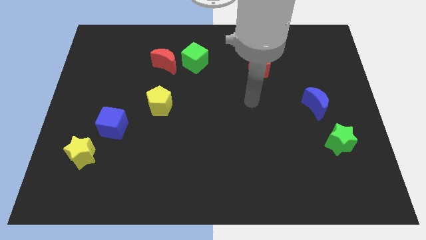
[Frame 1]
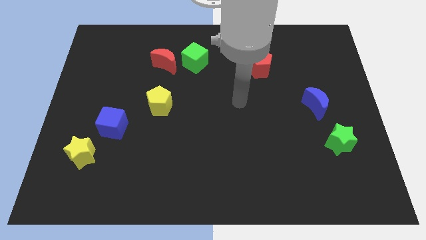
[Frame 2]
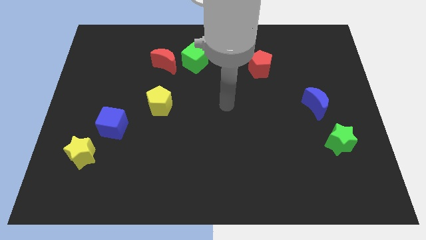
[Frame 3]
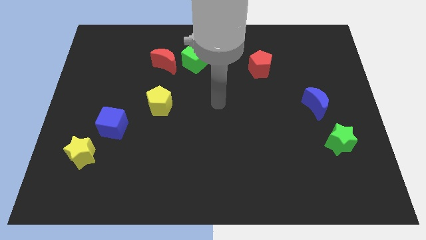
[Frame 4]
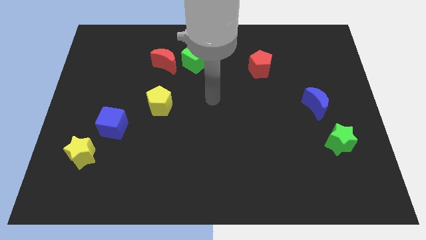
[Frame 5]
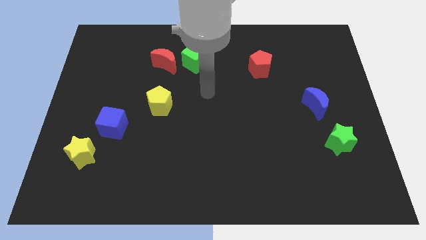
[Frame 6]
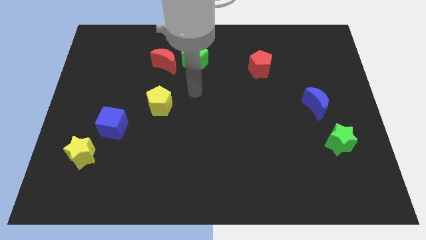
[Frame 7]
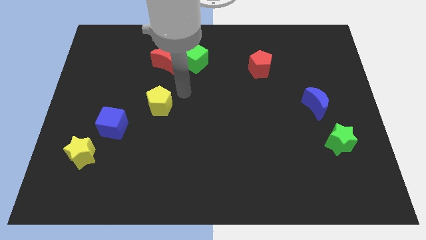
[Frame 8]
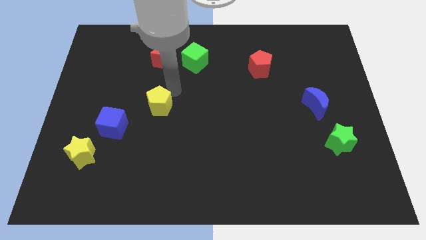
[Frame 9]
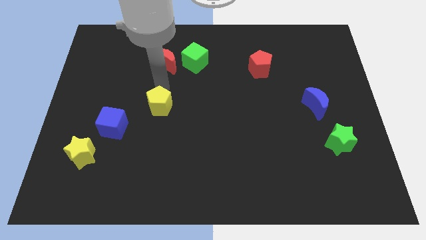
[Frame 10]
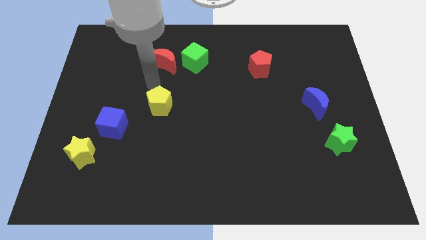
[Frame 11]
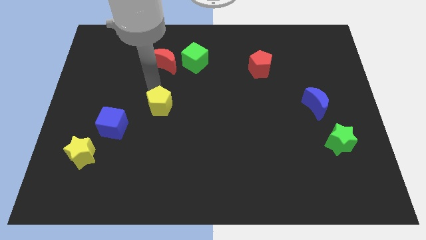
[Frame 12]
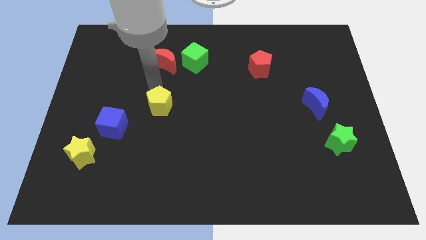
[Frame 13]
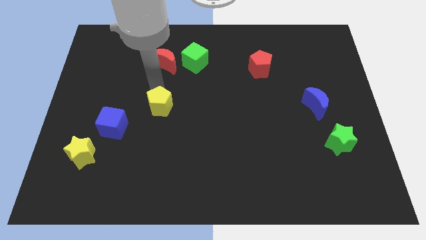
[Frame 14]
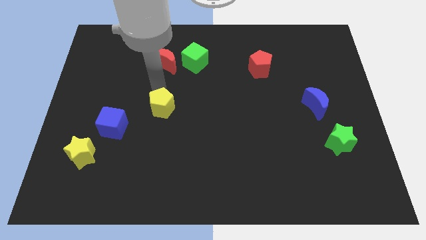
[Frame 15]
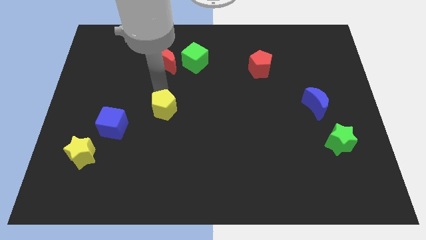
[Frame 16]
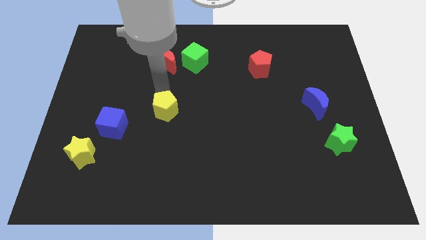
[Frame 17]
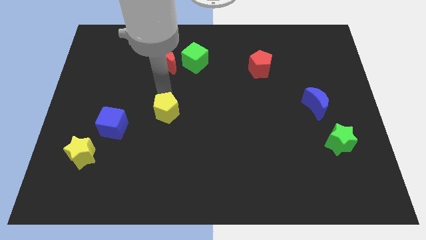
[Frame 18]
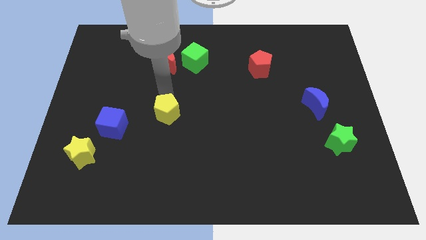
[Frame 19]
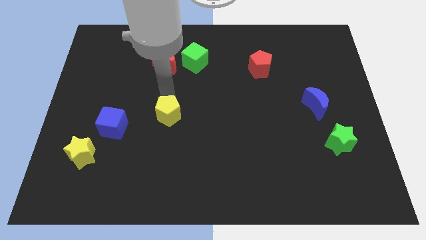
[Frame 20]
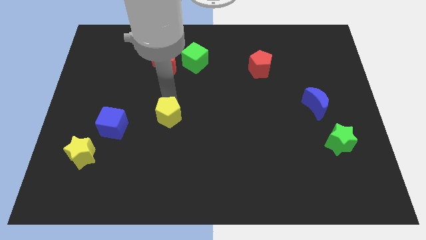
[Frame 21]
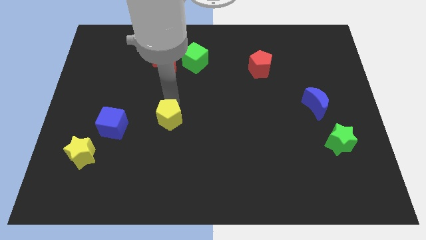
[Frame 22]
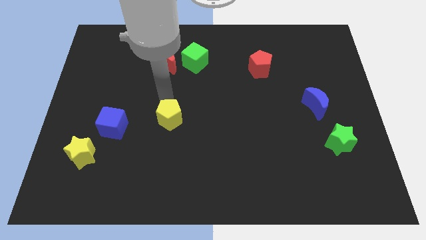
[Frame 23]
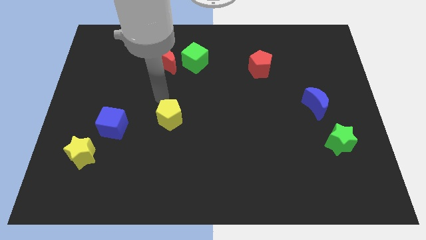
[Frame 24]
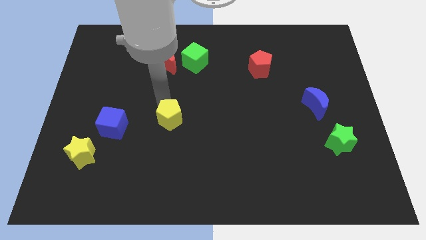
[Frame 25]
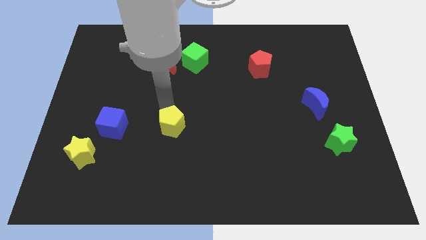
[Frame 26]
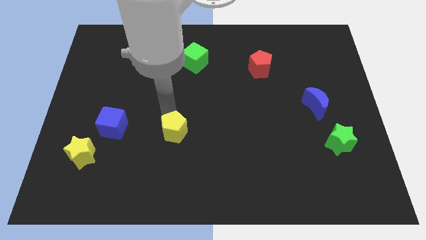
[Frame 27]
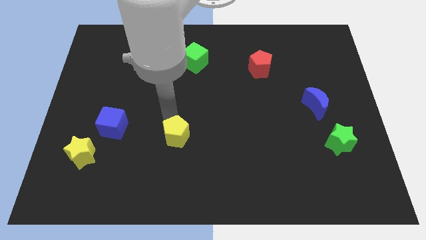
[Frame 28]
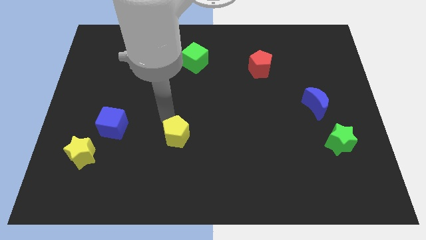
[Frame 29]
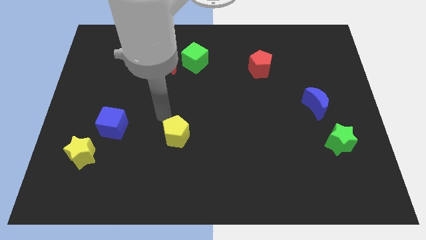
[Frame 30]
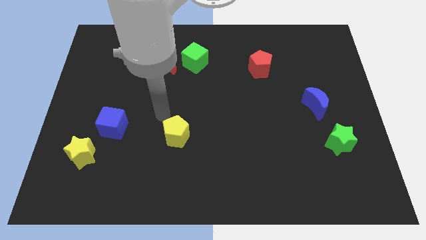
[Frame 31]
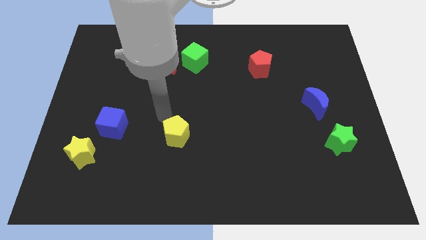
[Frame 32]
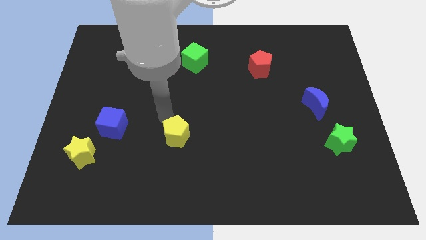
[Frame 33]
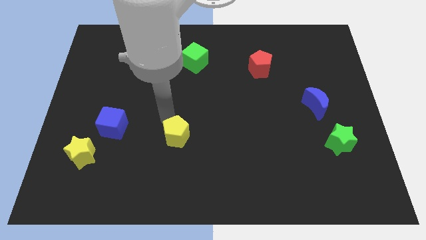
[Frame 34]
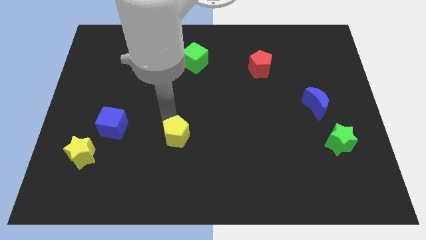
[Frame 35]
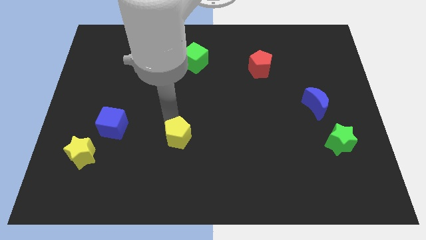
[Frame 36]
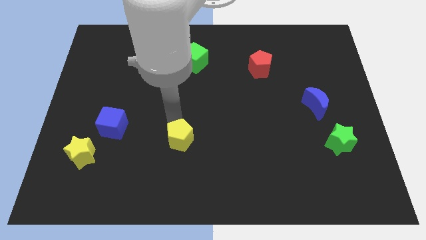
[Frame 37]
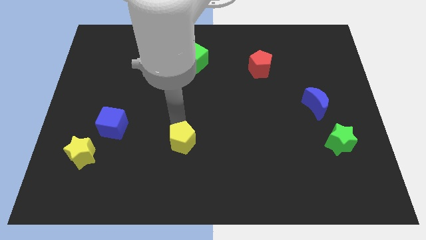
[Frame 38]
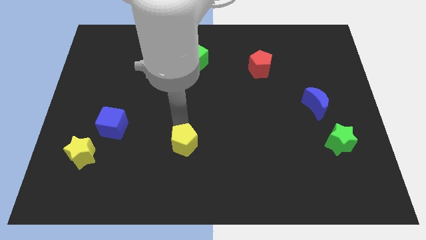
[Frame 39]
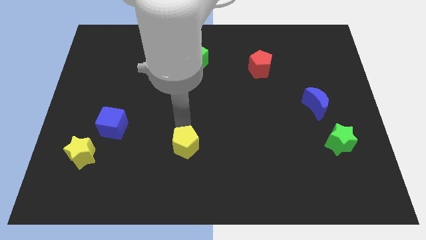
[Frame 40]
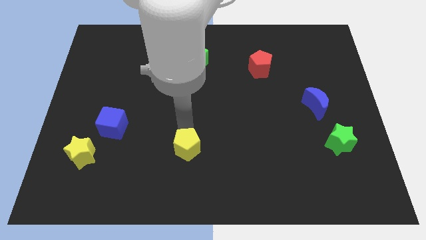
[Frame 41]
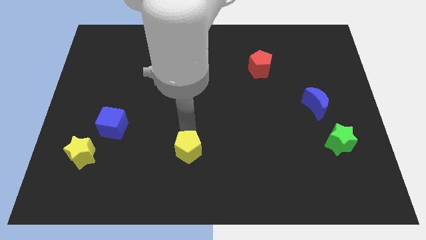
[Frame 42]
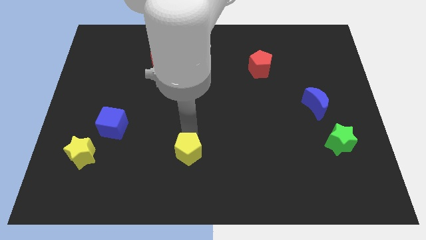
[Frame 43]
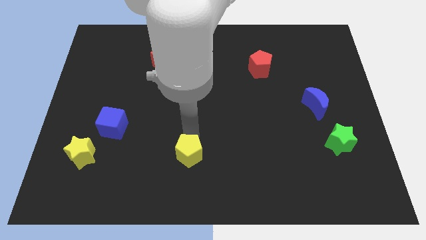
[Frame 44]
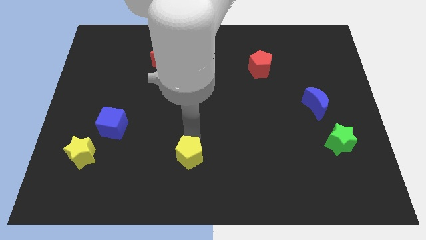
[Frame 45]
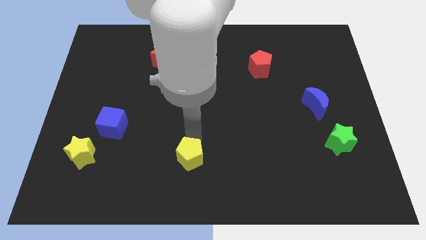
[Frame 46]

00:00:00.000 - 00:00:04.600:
put the yellow pentagon to the bottom side
